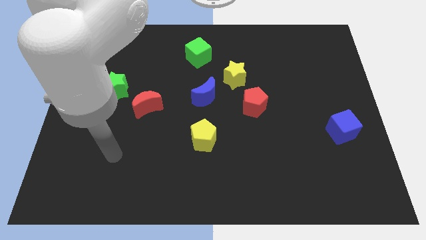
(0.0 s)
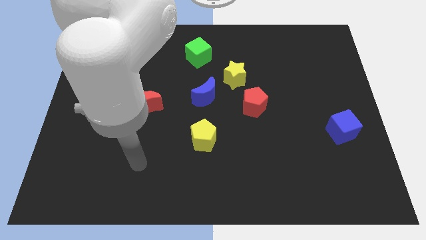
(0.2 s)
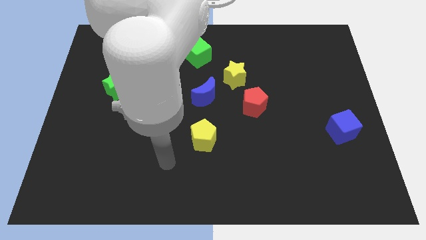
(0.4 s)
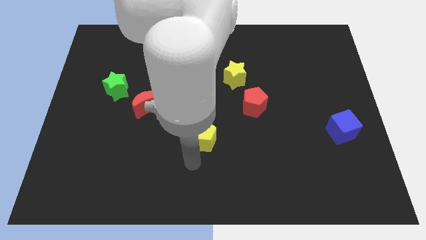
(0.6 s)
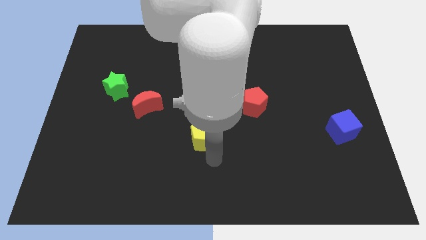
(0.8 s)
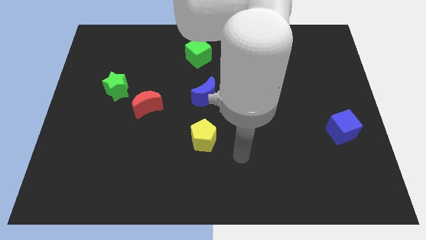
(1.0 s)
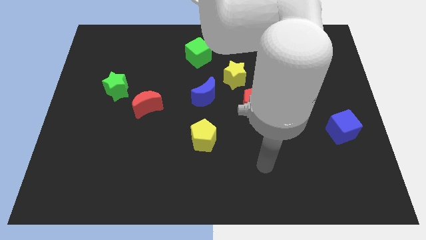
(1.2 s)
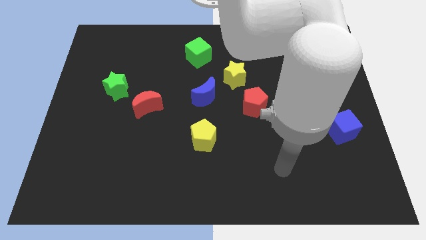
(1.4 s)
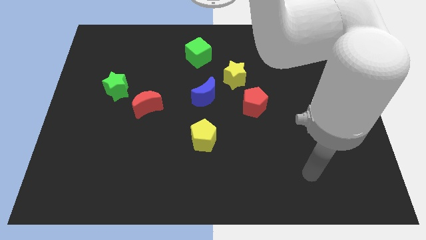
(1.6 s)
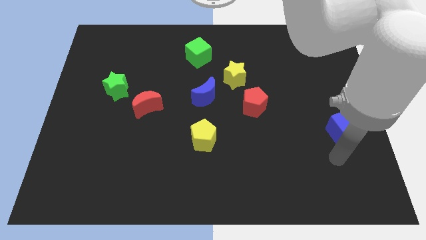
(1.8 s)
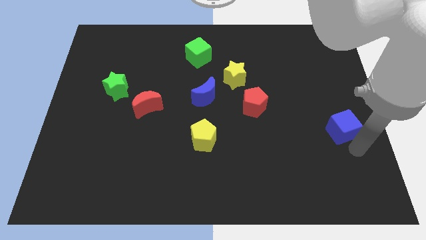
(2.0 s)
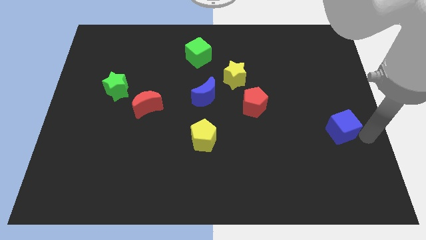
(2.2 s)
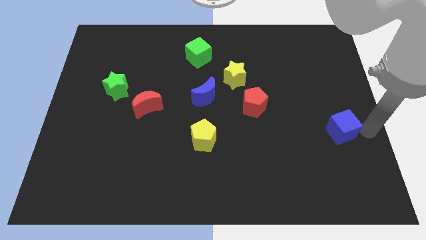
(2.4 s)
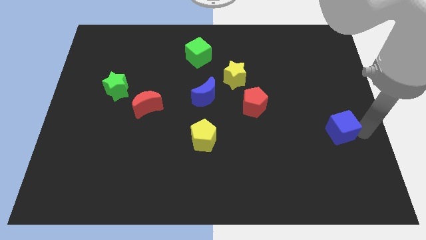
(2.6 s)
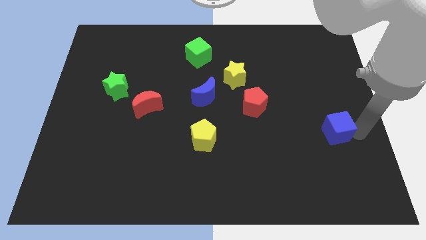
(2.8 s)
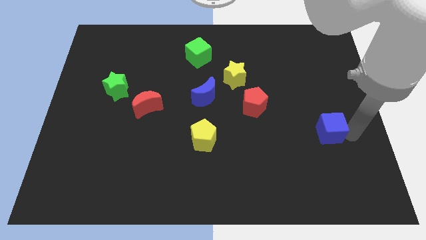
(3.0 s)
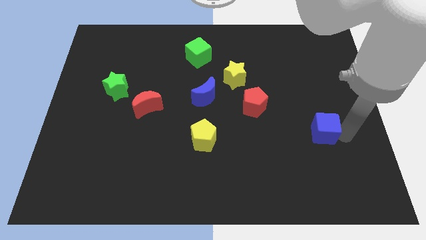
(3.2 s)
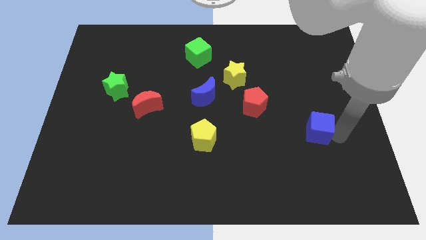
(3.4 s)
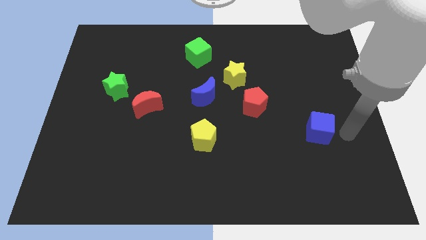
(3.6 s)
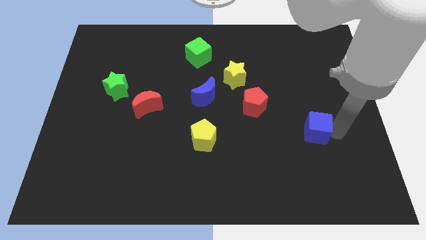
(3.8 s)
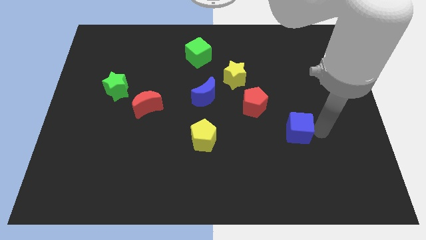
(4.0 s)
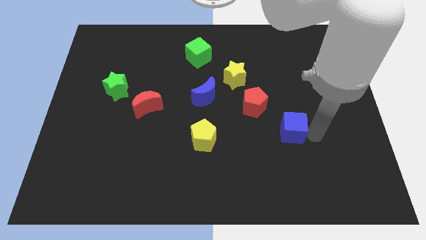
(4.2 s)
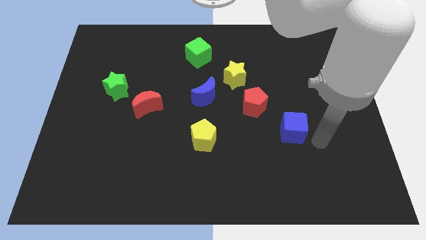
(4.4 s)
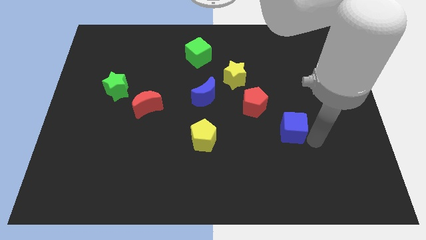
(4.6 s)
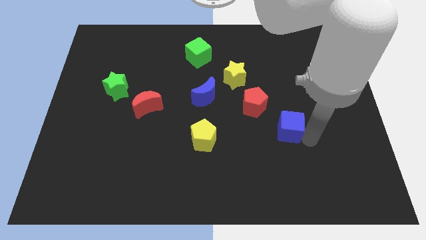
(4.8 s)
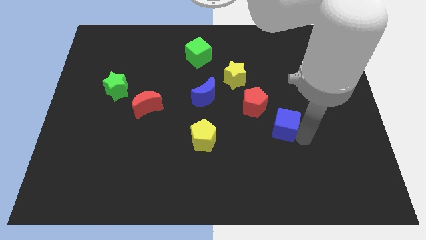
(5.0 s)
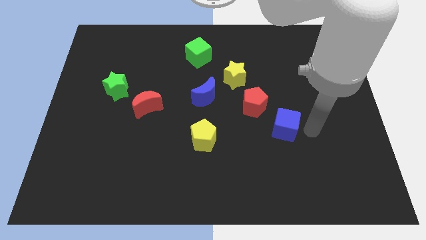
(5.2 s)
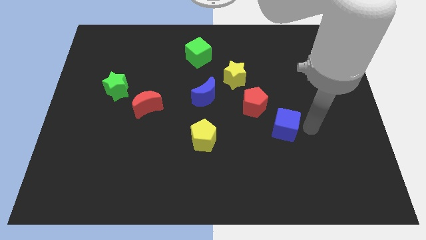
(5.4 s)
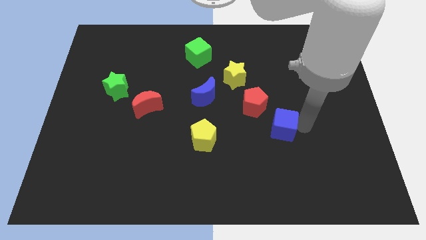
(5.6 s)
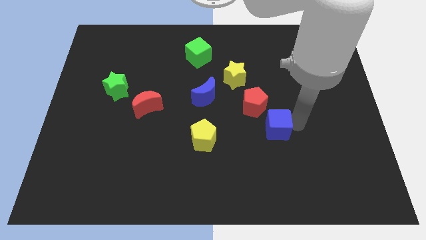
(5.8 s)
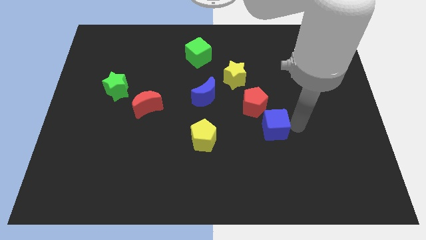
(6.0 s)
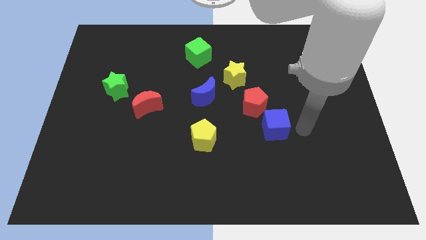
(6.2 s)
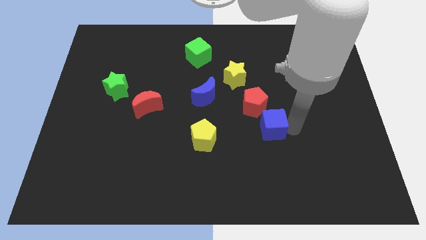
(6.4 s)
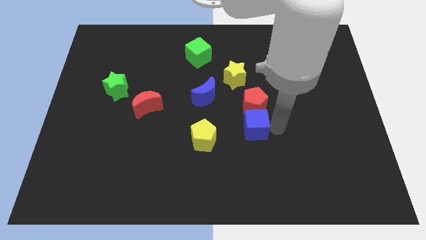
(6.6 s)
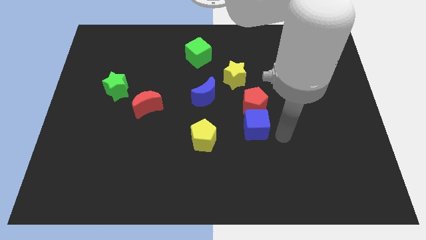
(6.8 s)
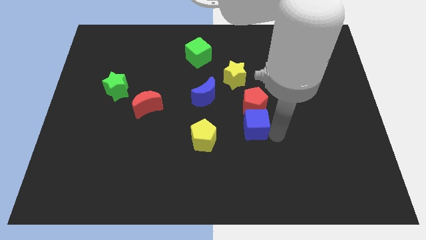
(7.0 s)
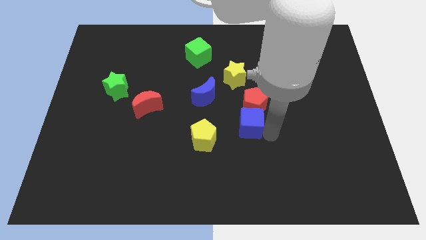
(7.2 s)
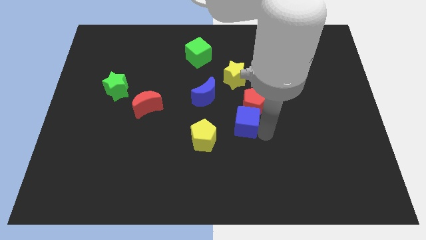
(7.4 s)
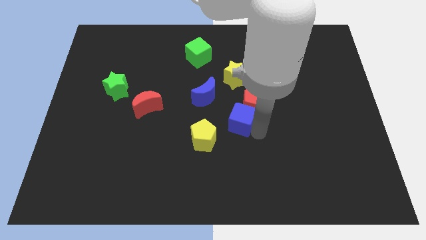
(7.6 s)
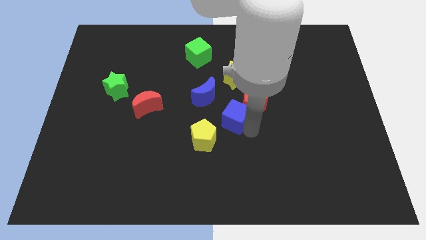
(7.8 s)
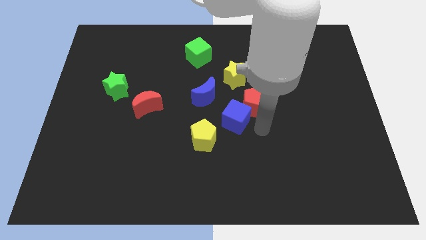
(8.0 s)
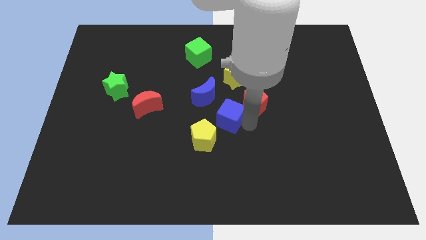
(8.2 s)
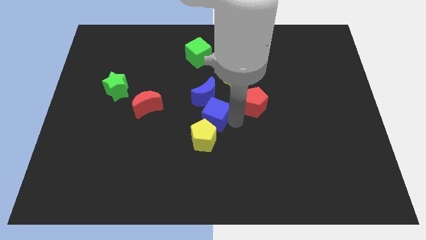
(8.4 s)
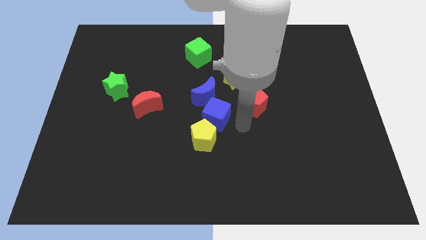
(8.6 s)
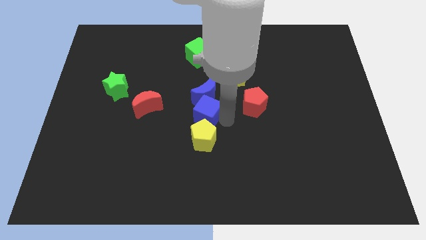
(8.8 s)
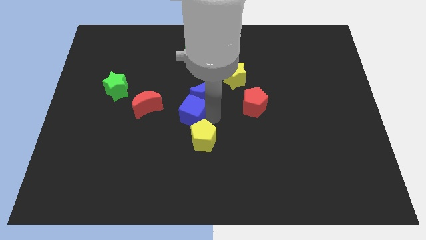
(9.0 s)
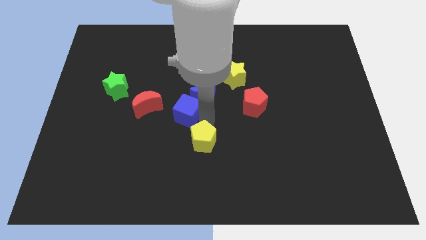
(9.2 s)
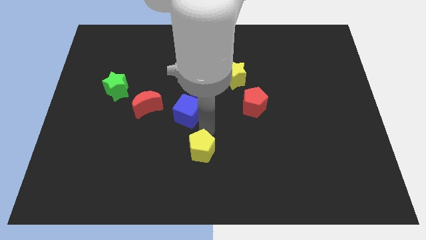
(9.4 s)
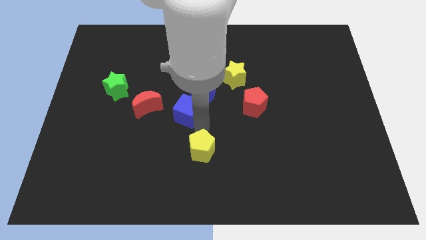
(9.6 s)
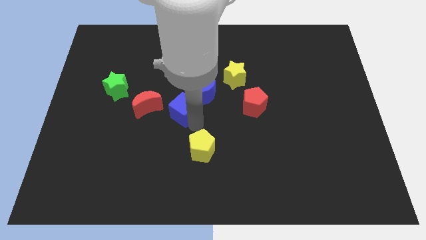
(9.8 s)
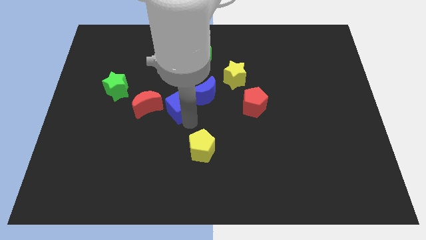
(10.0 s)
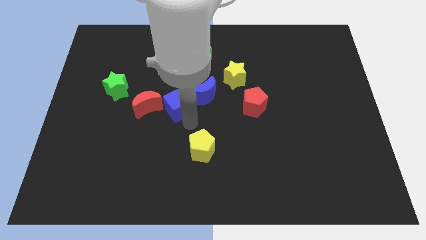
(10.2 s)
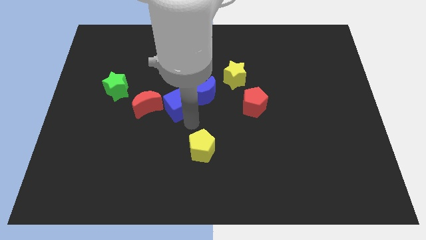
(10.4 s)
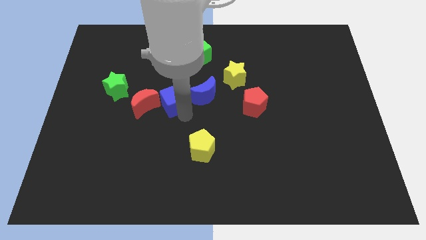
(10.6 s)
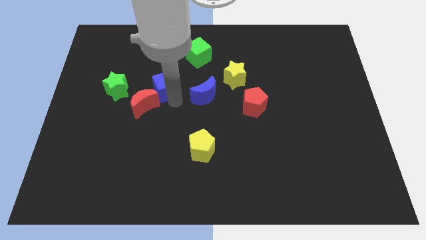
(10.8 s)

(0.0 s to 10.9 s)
push the blue cube to the top side of the red moon

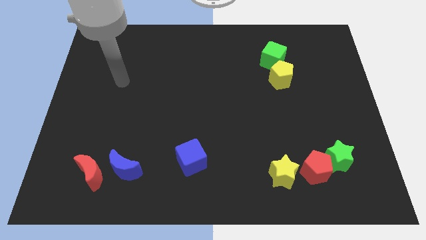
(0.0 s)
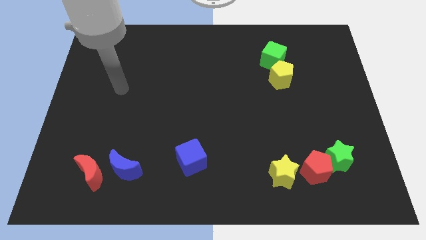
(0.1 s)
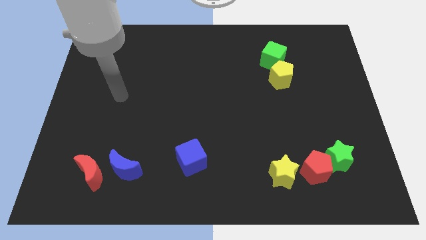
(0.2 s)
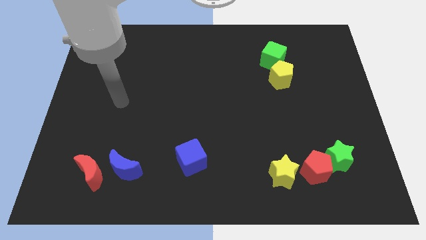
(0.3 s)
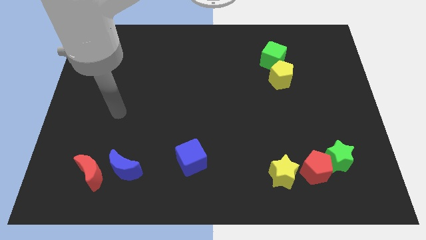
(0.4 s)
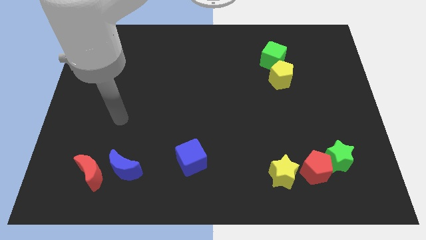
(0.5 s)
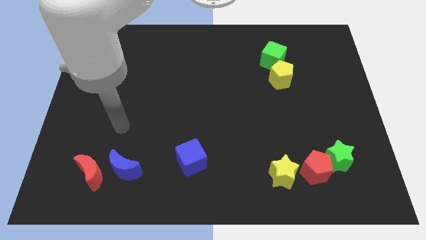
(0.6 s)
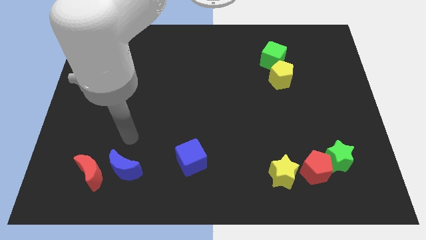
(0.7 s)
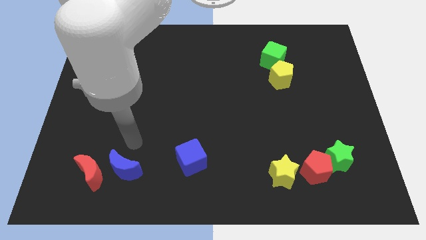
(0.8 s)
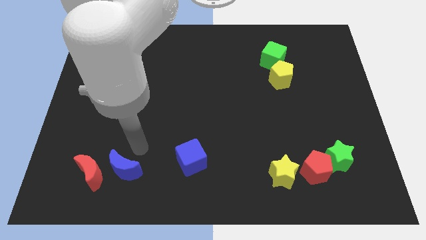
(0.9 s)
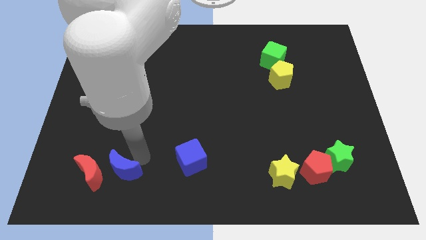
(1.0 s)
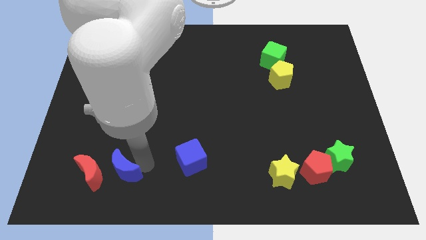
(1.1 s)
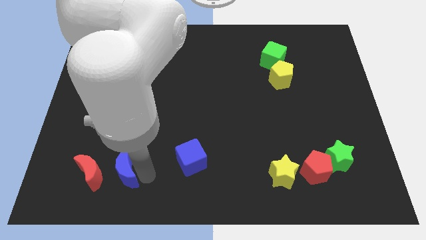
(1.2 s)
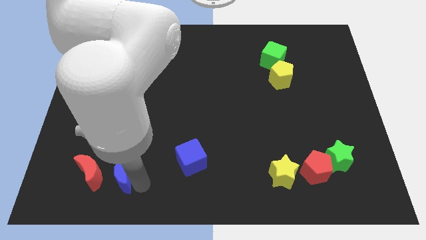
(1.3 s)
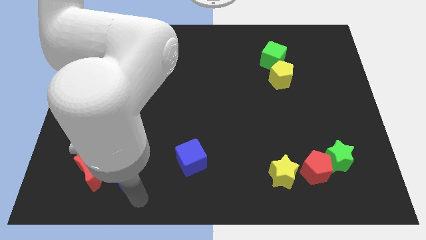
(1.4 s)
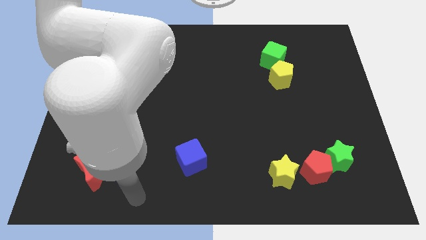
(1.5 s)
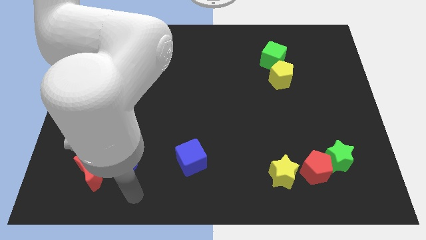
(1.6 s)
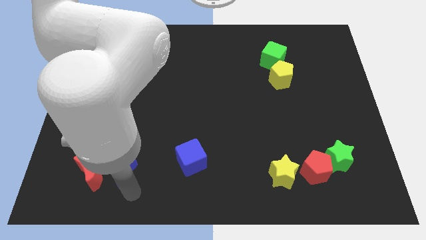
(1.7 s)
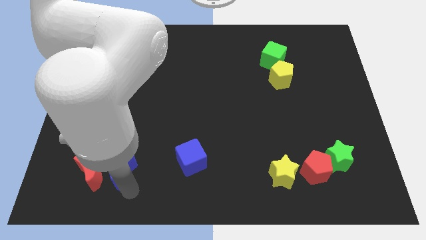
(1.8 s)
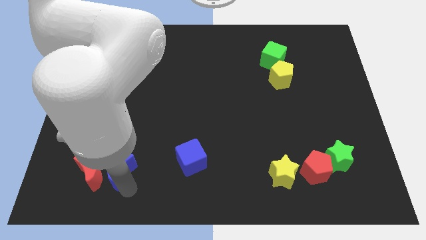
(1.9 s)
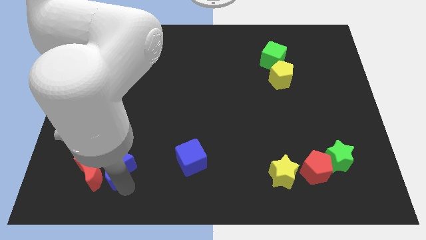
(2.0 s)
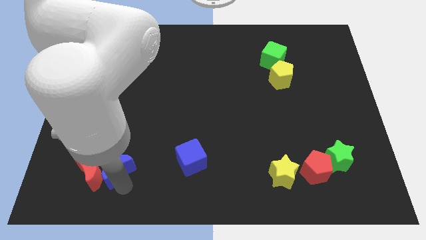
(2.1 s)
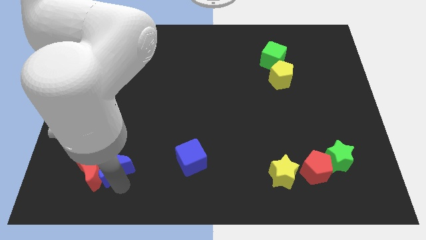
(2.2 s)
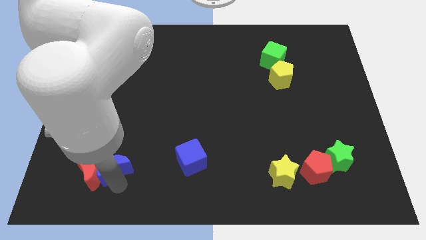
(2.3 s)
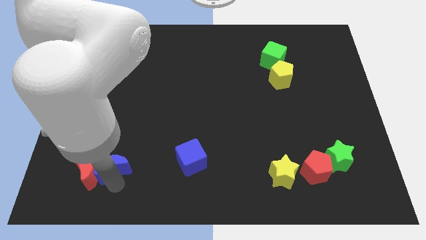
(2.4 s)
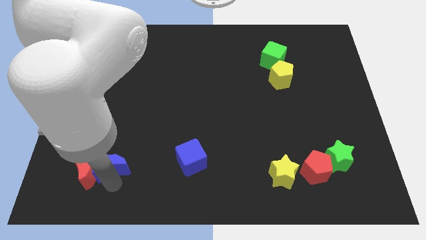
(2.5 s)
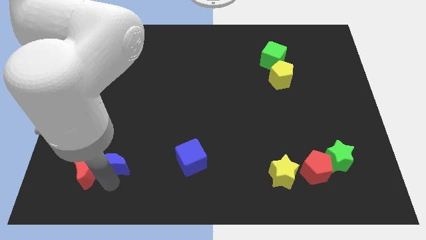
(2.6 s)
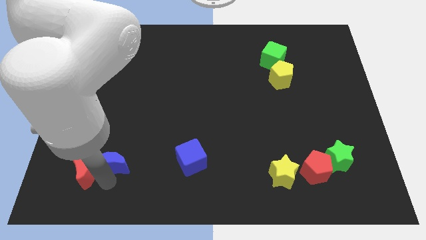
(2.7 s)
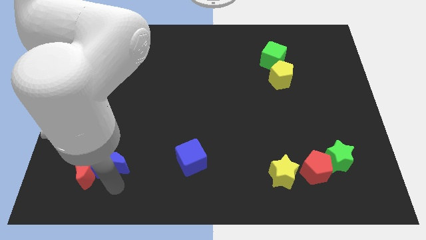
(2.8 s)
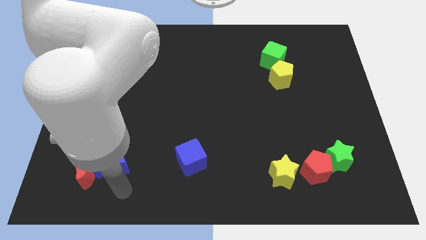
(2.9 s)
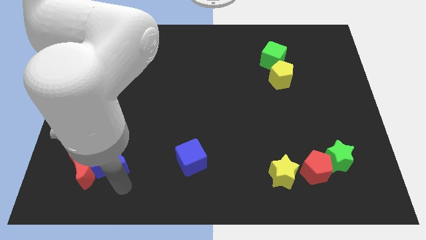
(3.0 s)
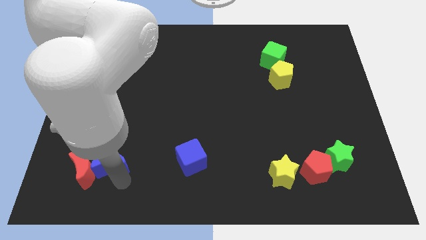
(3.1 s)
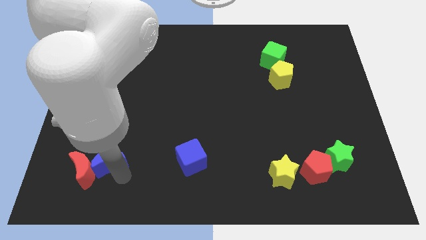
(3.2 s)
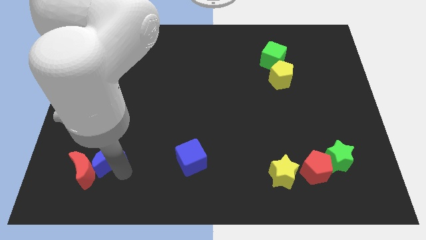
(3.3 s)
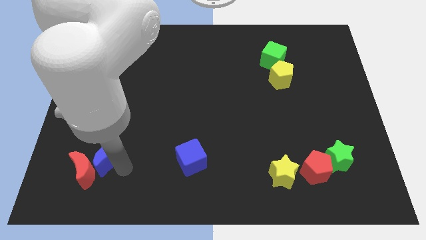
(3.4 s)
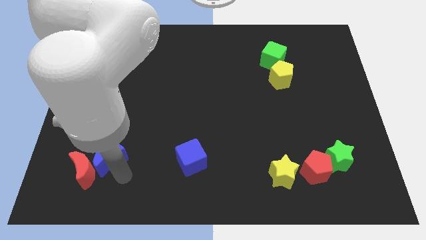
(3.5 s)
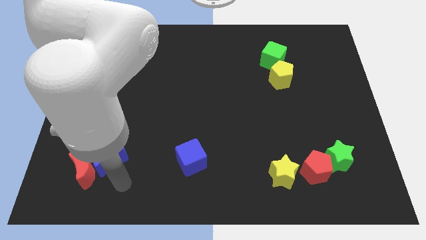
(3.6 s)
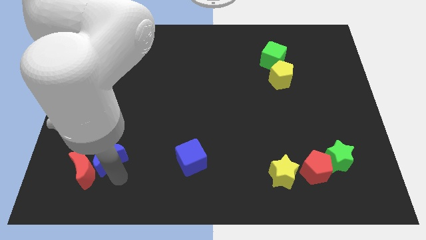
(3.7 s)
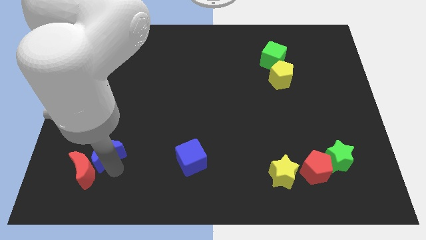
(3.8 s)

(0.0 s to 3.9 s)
slide the blue moon to the top side of the red moon
